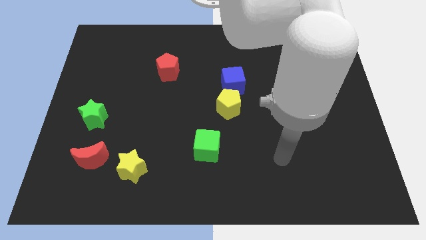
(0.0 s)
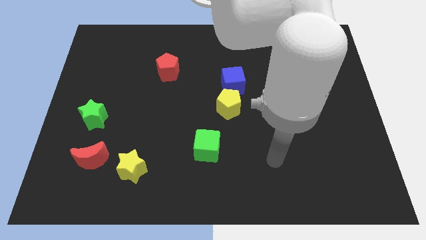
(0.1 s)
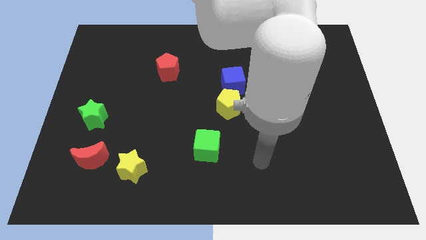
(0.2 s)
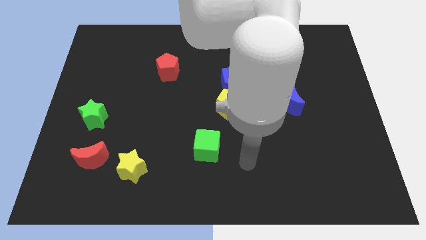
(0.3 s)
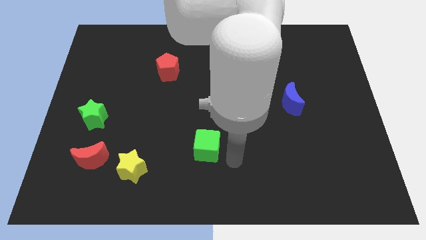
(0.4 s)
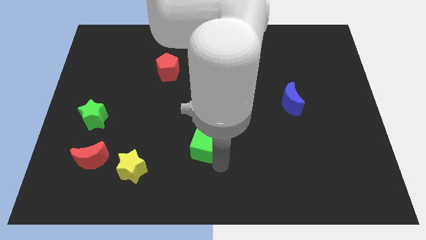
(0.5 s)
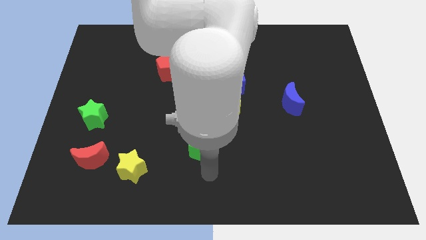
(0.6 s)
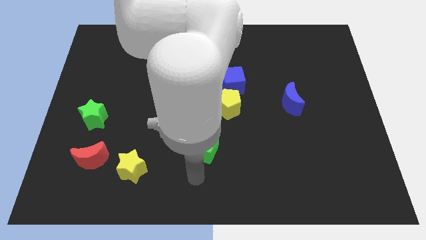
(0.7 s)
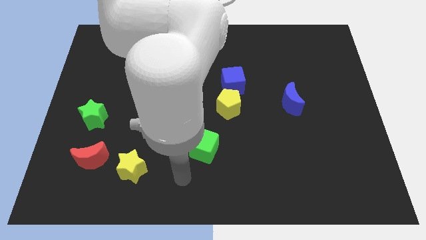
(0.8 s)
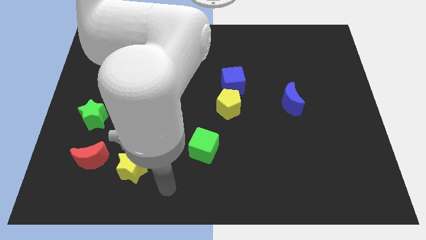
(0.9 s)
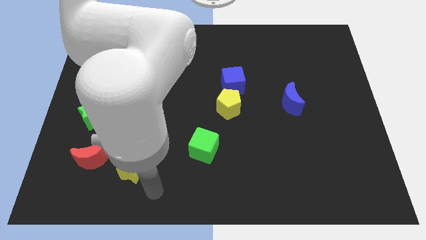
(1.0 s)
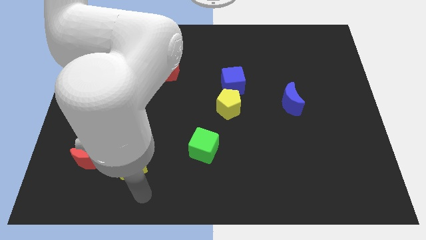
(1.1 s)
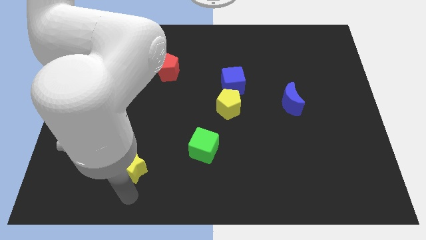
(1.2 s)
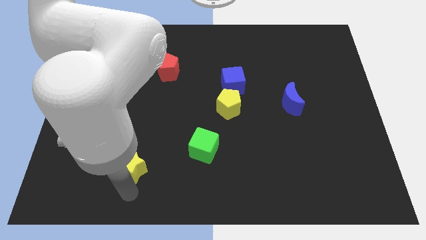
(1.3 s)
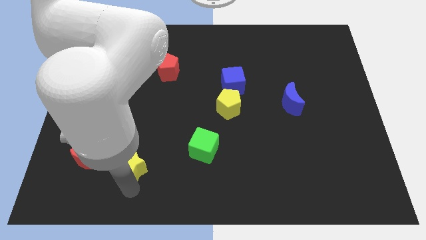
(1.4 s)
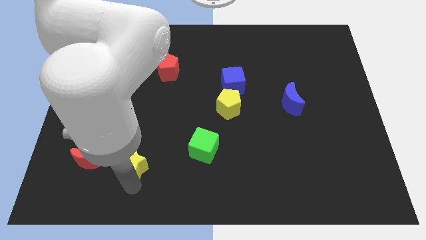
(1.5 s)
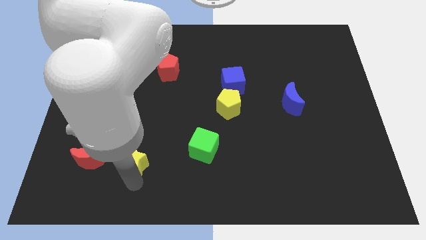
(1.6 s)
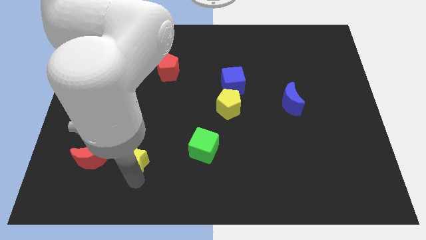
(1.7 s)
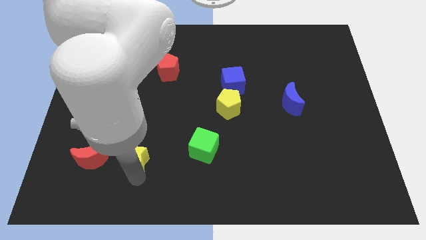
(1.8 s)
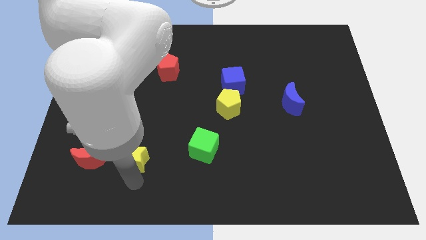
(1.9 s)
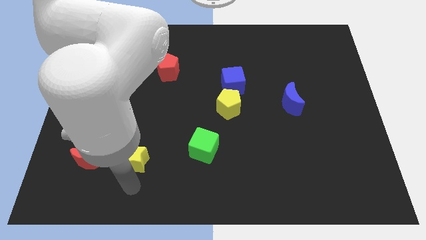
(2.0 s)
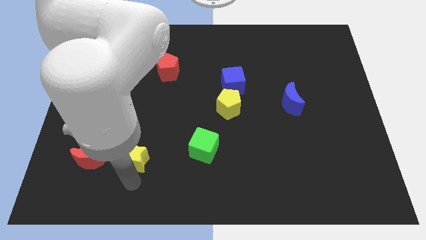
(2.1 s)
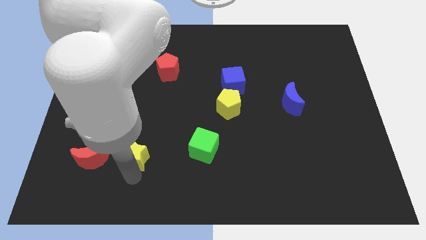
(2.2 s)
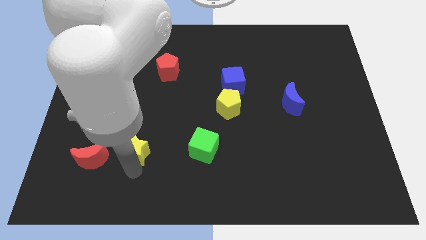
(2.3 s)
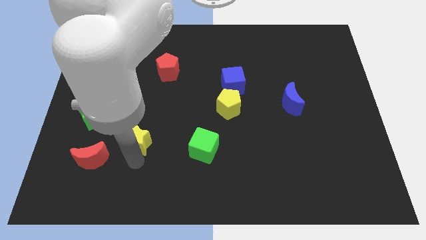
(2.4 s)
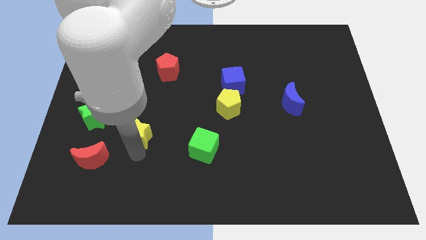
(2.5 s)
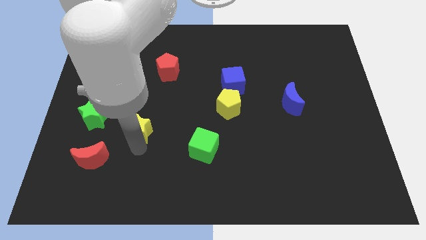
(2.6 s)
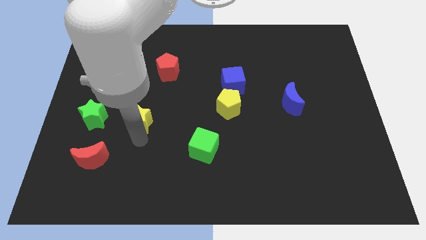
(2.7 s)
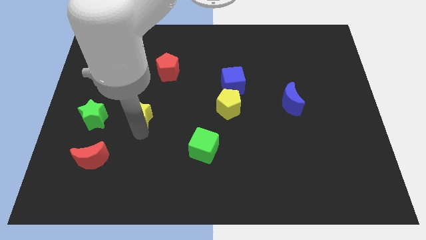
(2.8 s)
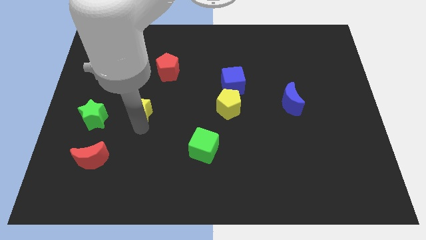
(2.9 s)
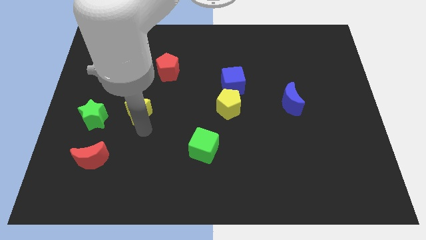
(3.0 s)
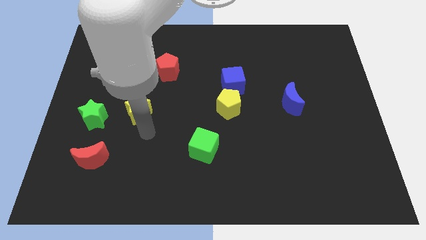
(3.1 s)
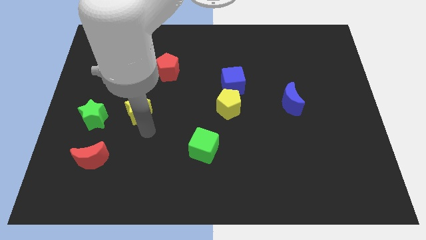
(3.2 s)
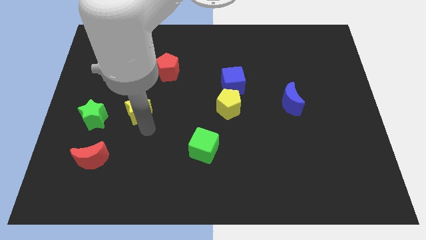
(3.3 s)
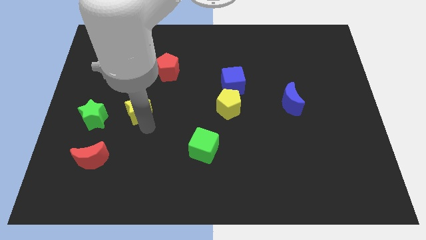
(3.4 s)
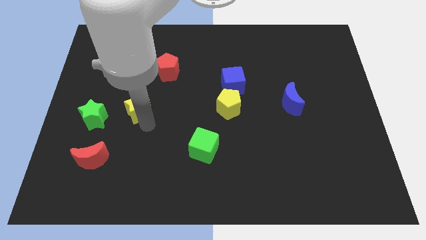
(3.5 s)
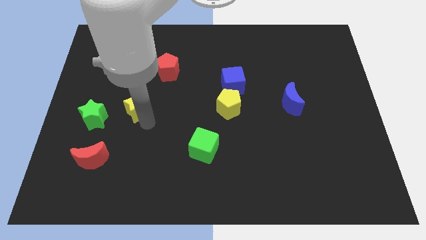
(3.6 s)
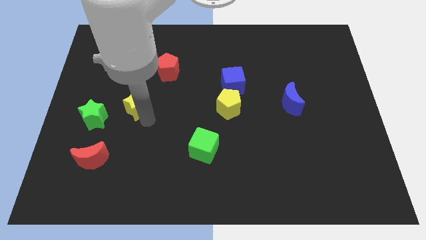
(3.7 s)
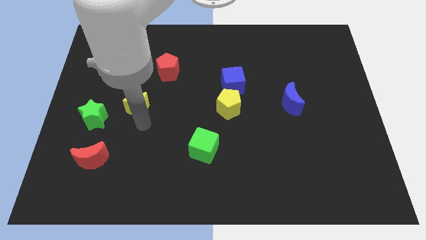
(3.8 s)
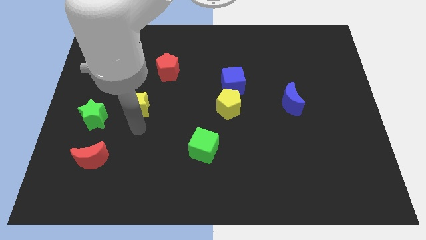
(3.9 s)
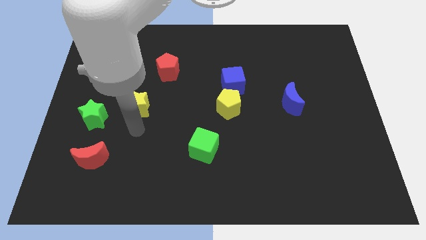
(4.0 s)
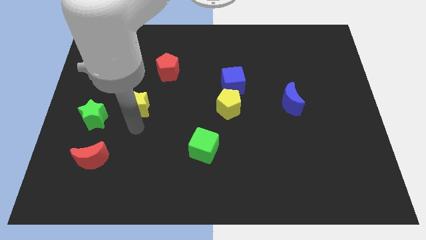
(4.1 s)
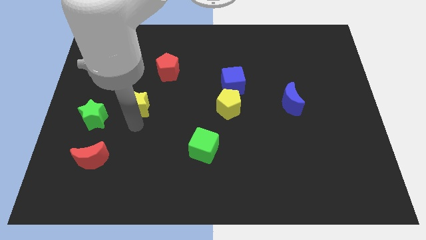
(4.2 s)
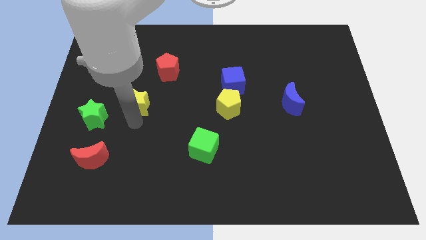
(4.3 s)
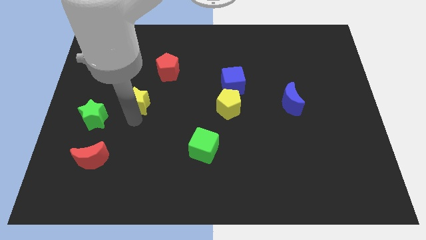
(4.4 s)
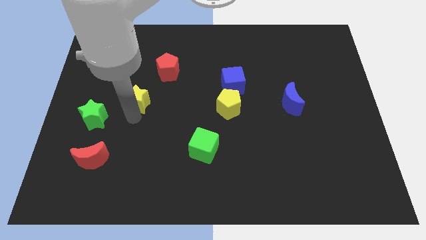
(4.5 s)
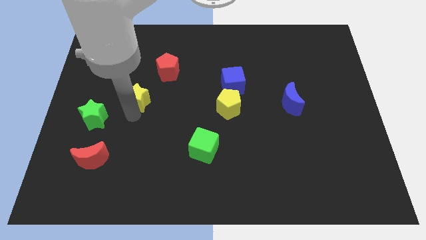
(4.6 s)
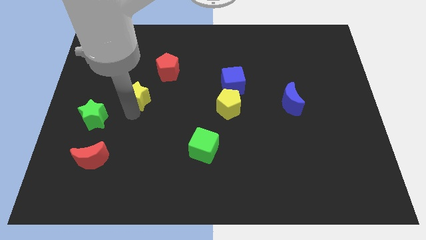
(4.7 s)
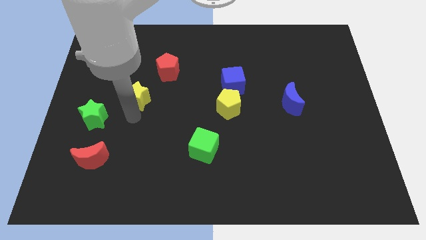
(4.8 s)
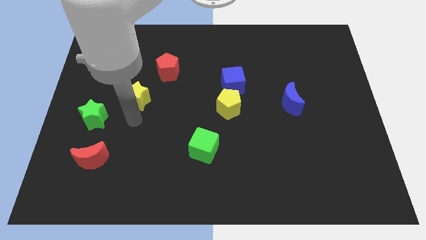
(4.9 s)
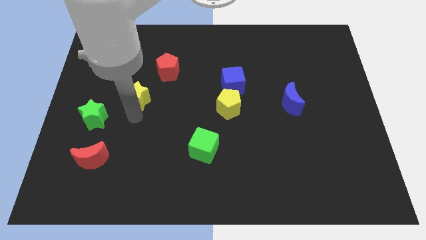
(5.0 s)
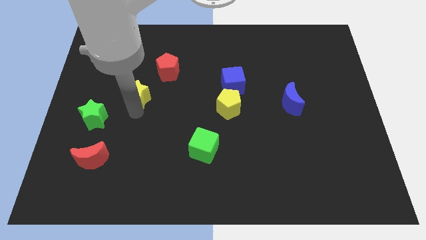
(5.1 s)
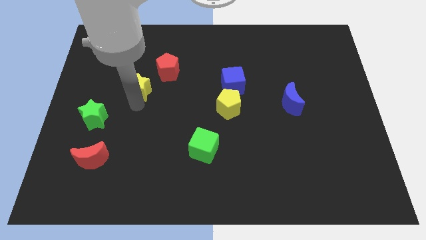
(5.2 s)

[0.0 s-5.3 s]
move the yellow star up

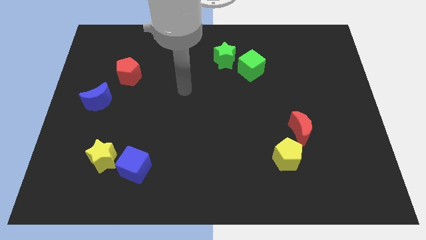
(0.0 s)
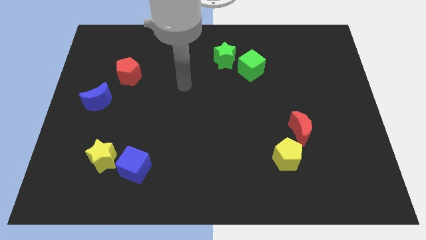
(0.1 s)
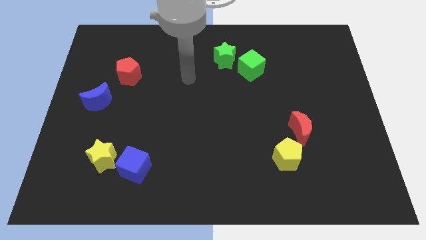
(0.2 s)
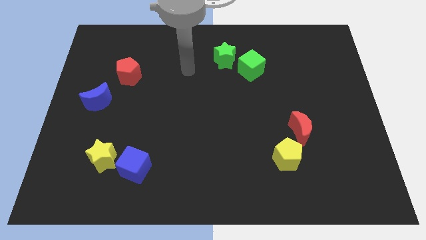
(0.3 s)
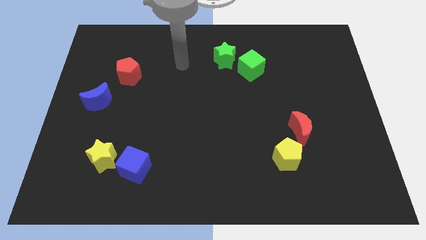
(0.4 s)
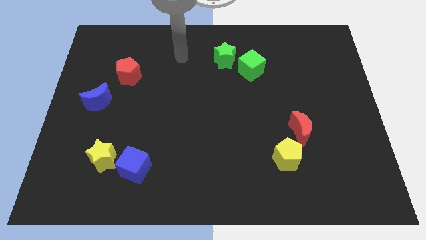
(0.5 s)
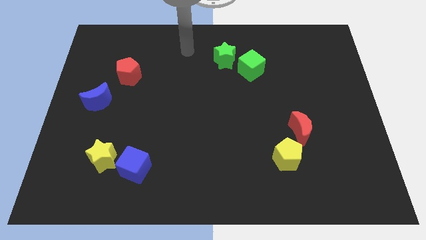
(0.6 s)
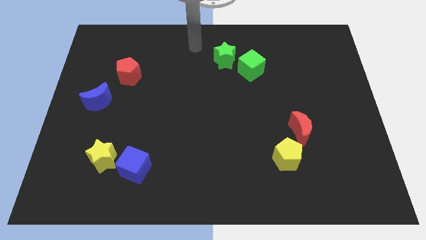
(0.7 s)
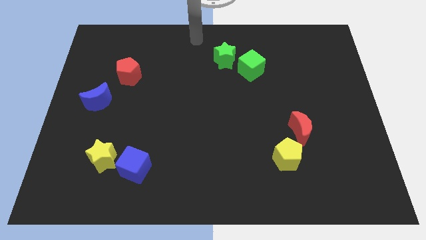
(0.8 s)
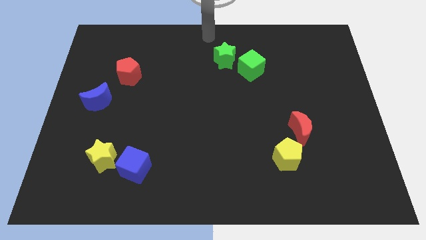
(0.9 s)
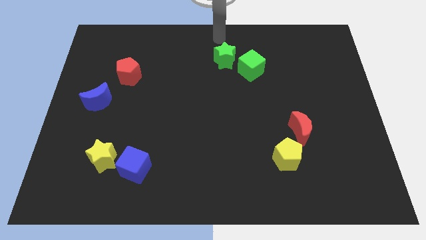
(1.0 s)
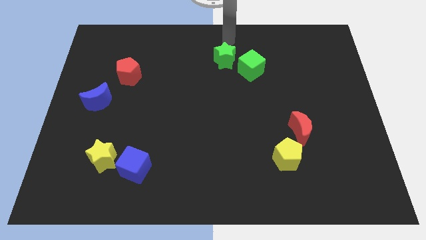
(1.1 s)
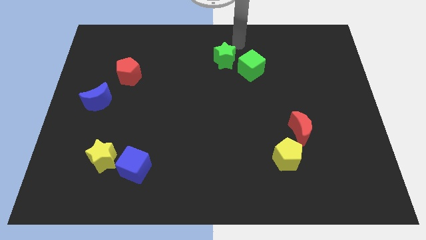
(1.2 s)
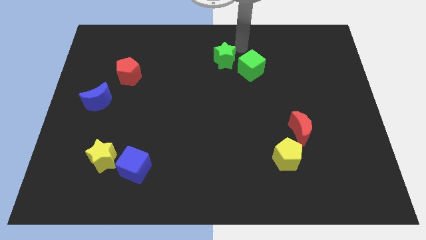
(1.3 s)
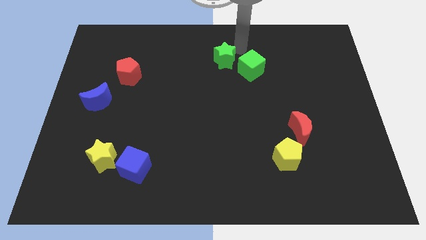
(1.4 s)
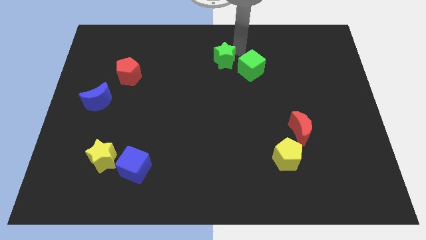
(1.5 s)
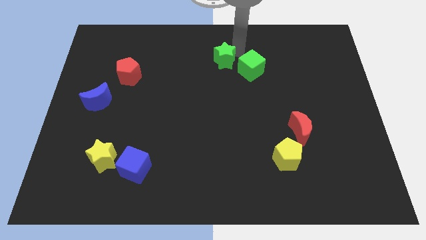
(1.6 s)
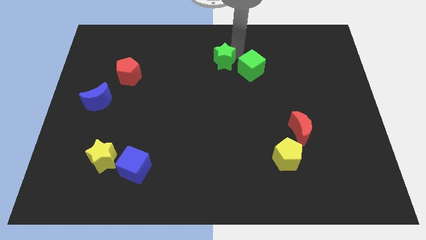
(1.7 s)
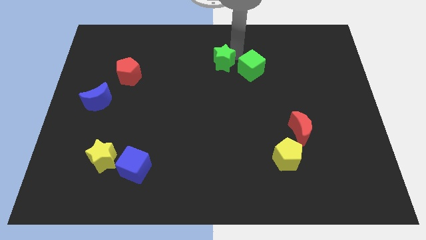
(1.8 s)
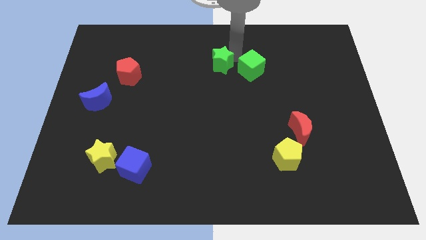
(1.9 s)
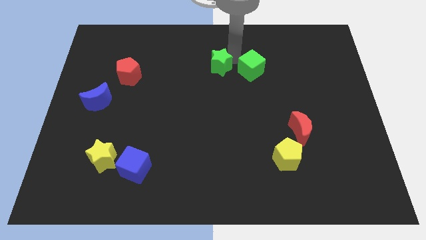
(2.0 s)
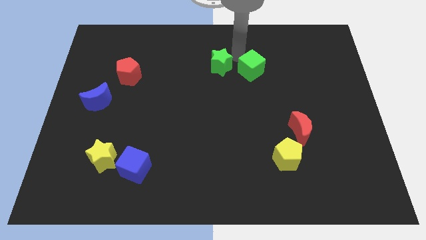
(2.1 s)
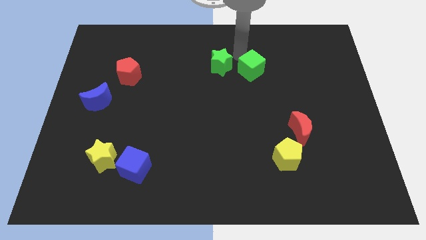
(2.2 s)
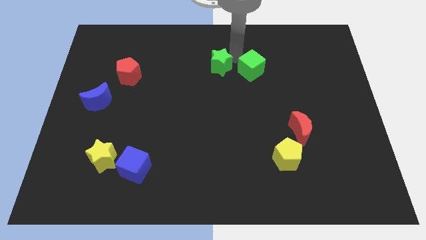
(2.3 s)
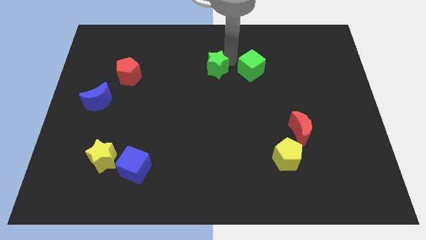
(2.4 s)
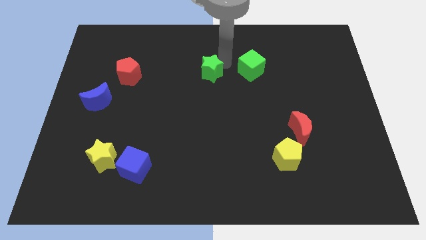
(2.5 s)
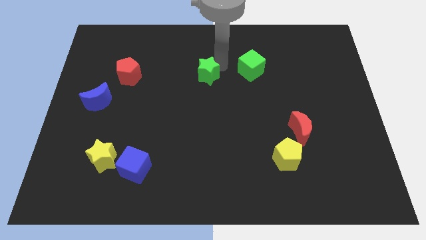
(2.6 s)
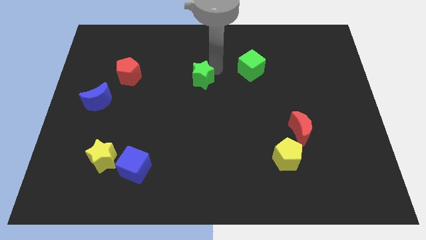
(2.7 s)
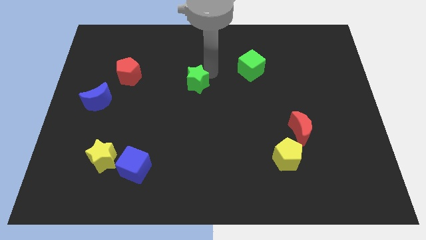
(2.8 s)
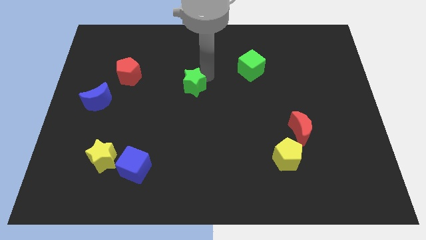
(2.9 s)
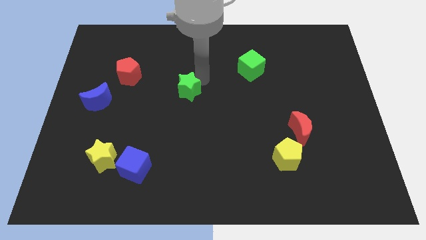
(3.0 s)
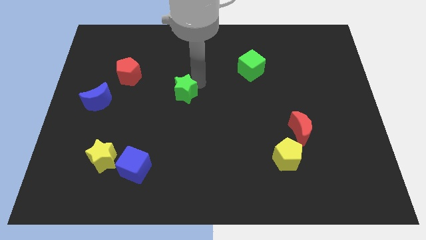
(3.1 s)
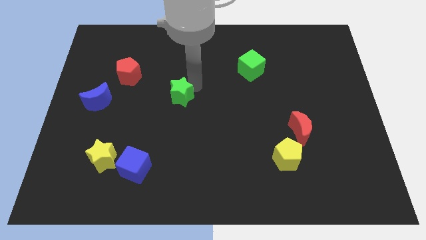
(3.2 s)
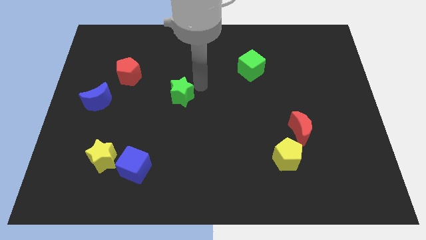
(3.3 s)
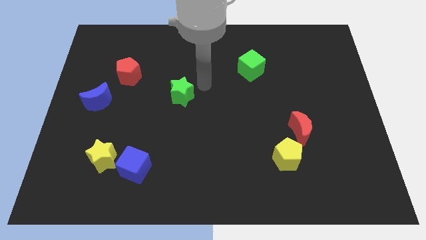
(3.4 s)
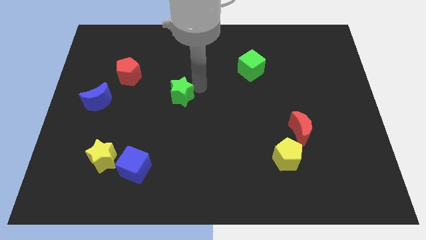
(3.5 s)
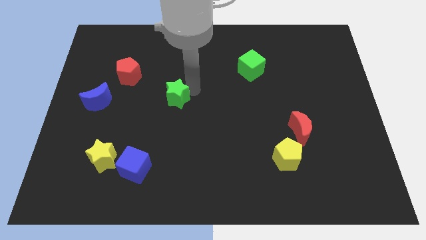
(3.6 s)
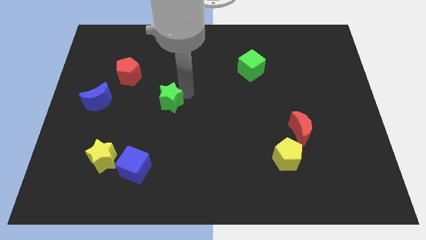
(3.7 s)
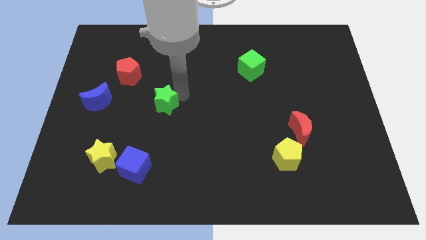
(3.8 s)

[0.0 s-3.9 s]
slide the green star downwards and to the left diagonally
